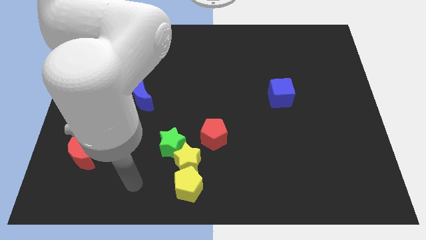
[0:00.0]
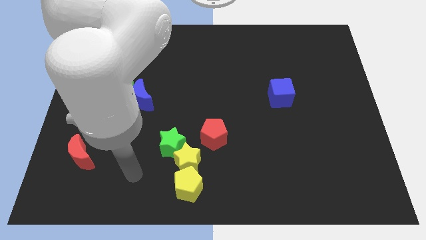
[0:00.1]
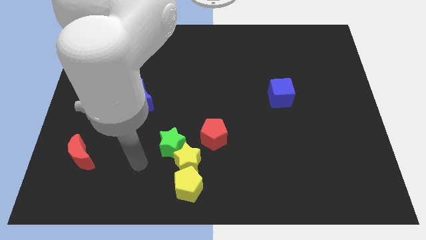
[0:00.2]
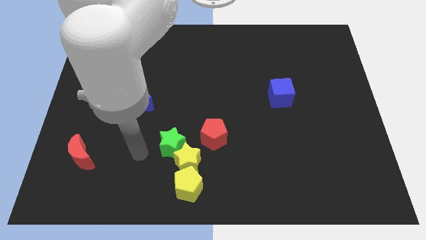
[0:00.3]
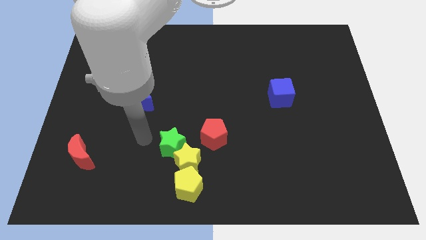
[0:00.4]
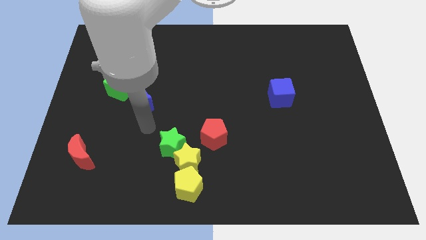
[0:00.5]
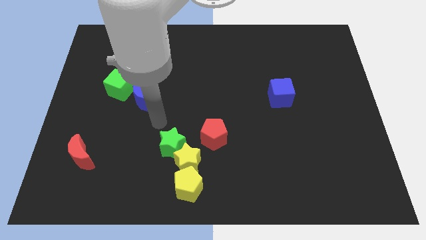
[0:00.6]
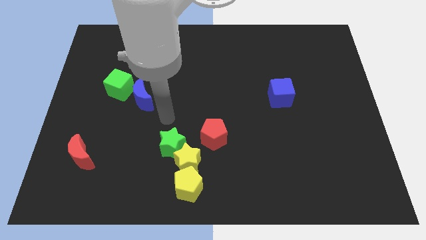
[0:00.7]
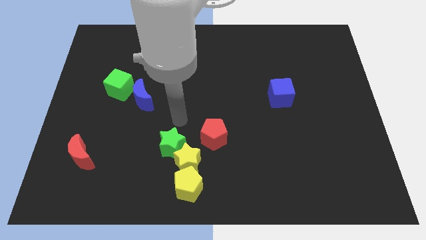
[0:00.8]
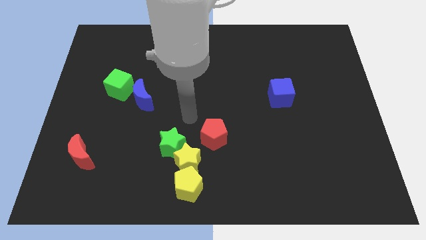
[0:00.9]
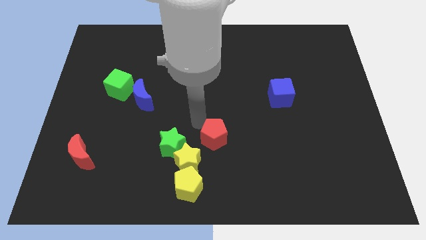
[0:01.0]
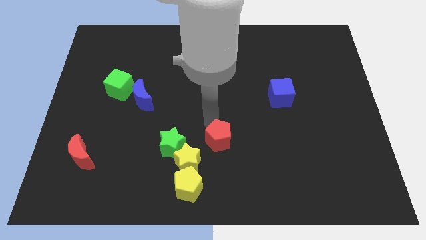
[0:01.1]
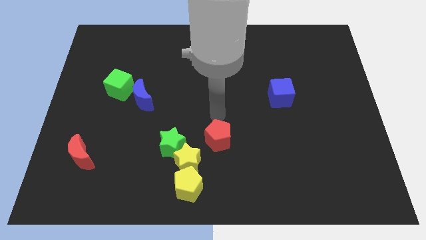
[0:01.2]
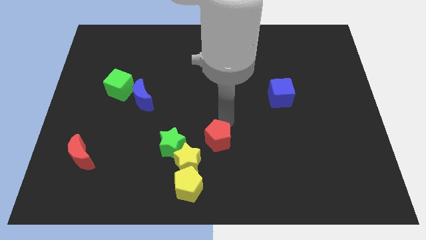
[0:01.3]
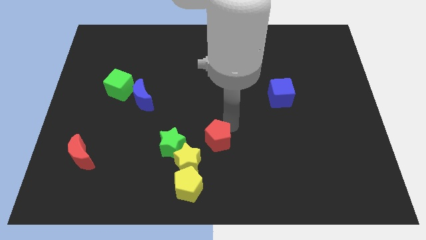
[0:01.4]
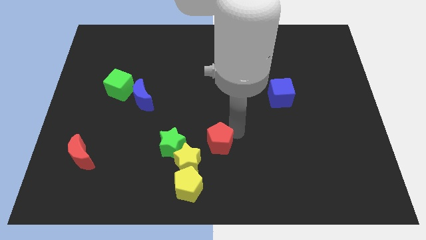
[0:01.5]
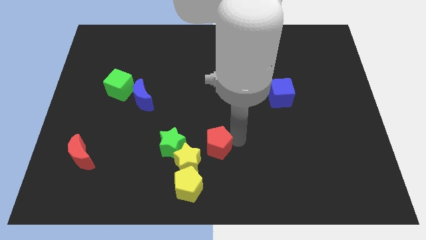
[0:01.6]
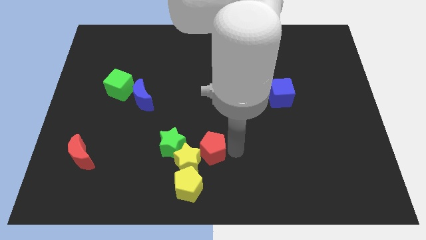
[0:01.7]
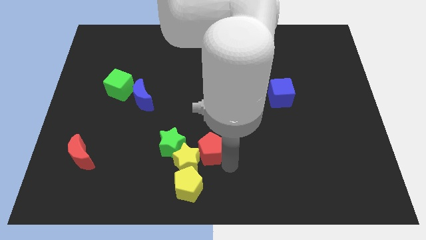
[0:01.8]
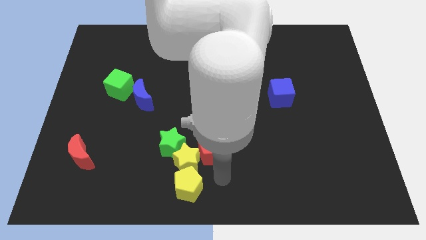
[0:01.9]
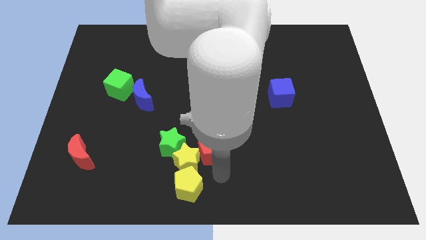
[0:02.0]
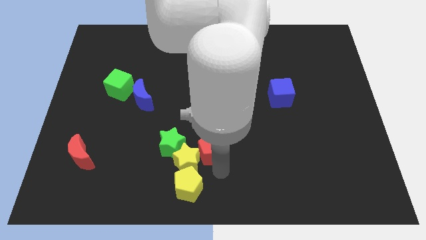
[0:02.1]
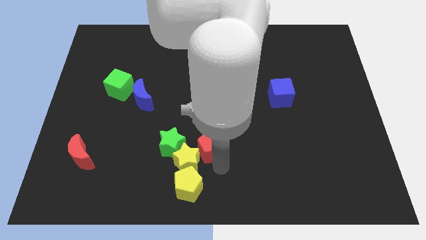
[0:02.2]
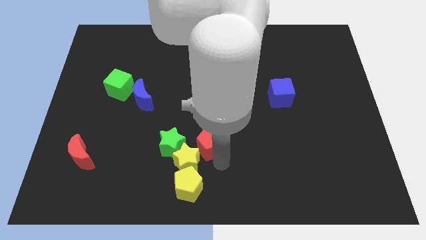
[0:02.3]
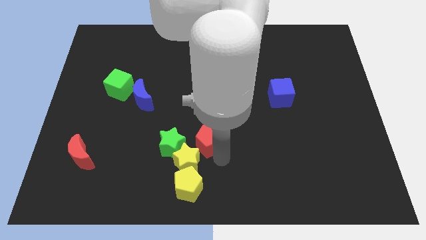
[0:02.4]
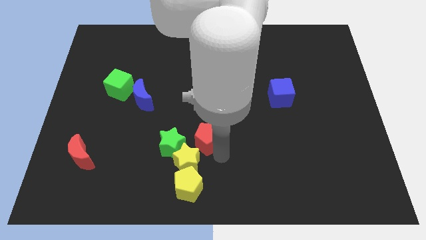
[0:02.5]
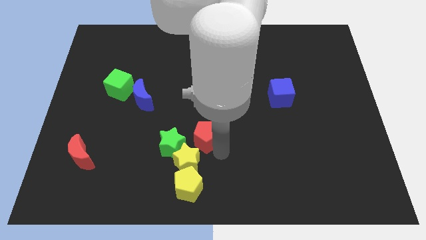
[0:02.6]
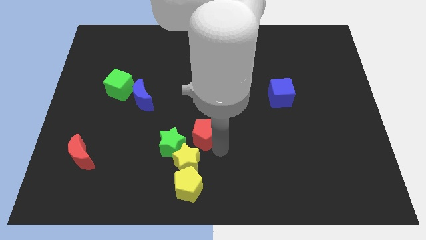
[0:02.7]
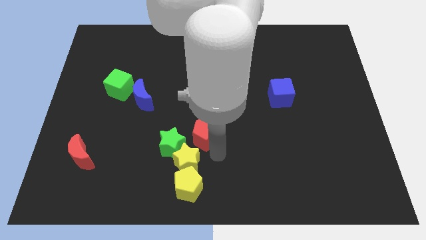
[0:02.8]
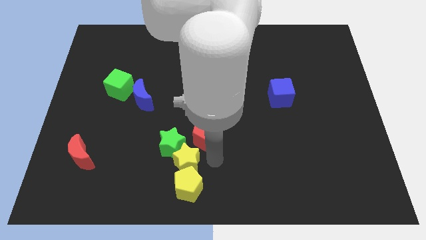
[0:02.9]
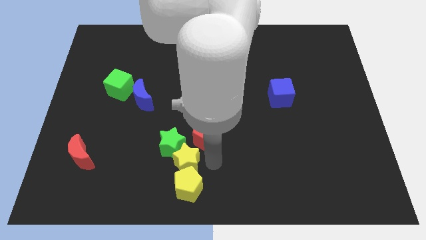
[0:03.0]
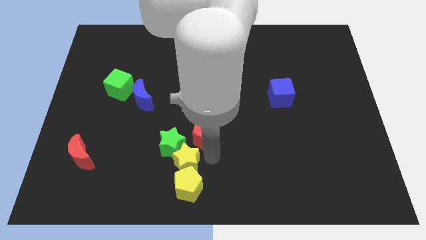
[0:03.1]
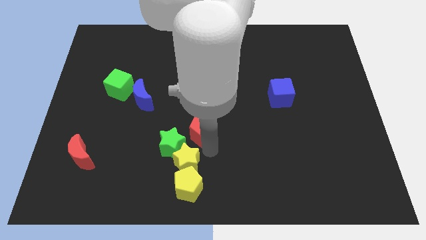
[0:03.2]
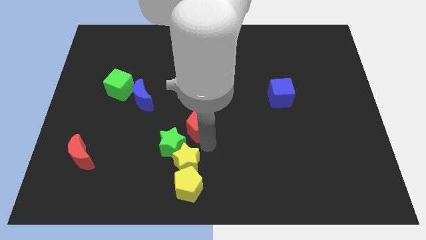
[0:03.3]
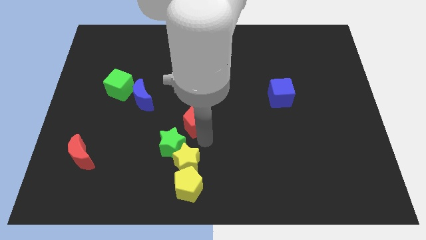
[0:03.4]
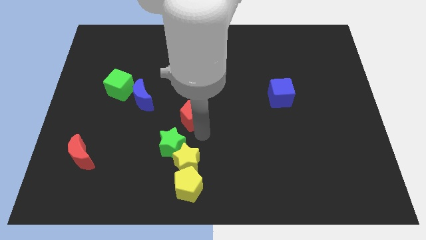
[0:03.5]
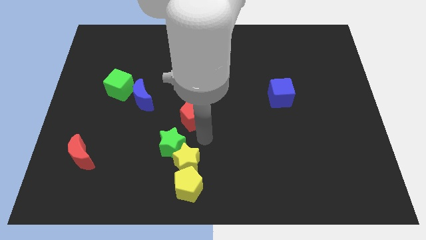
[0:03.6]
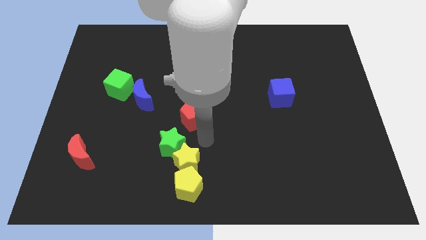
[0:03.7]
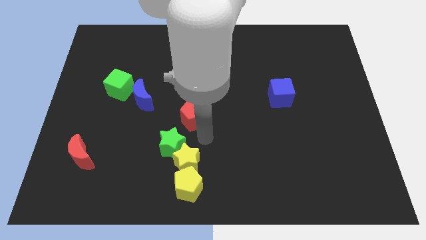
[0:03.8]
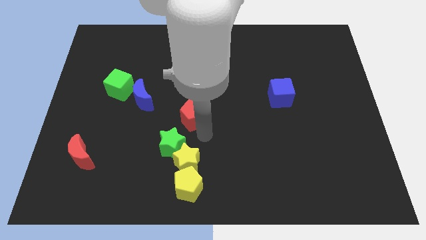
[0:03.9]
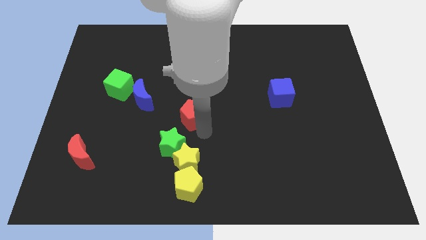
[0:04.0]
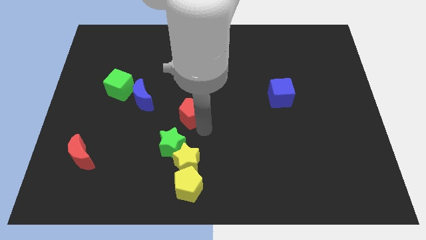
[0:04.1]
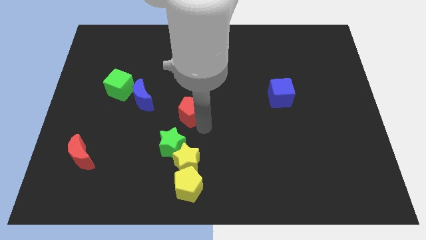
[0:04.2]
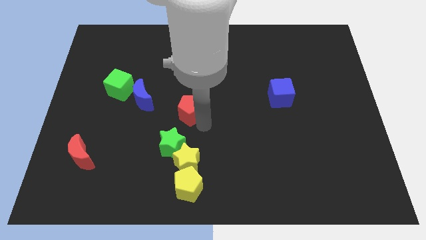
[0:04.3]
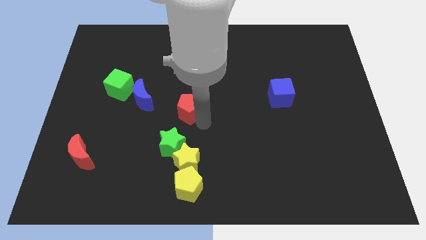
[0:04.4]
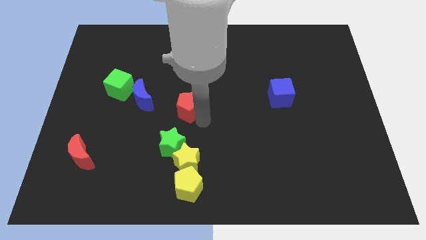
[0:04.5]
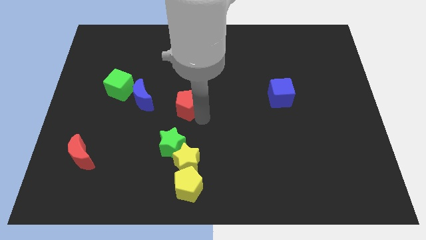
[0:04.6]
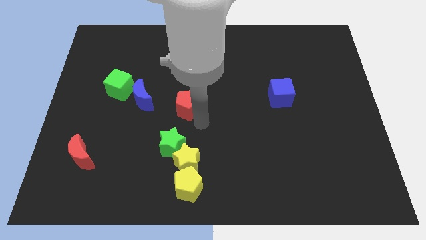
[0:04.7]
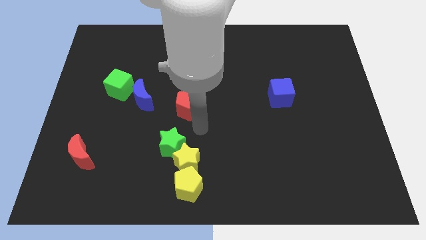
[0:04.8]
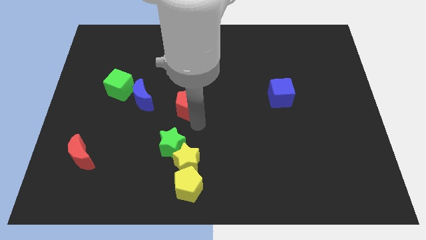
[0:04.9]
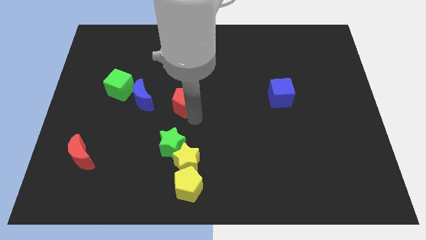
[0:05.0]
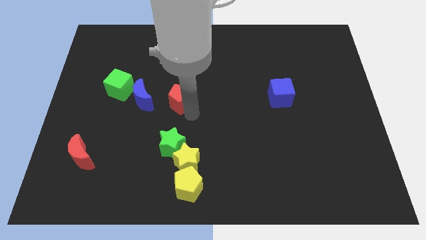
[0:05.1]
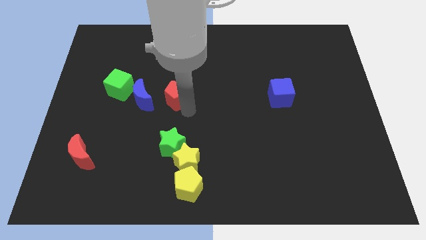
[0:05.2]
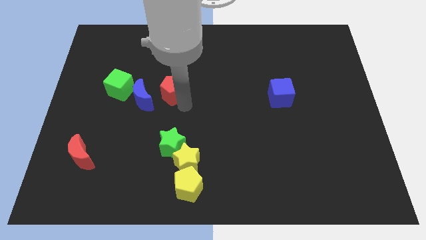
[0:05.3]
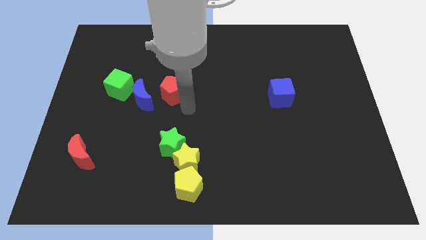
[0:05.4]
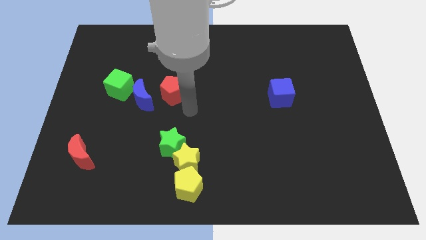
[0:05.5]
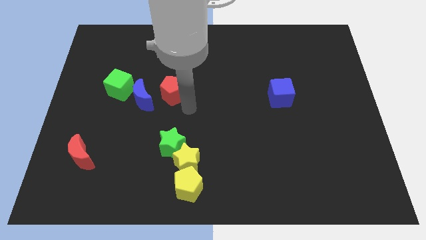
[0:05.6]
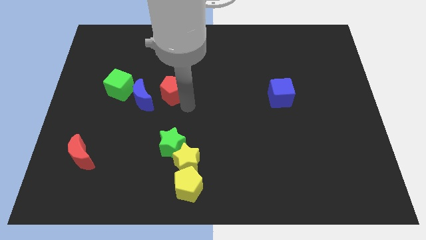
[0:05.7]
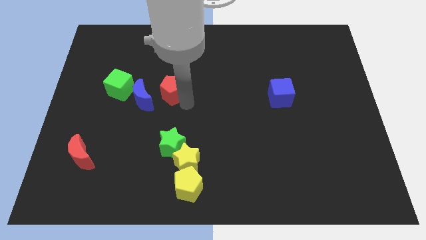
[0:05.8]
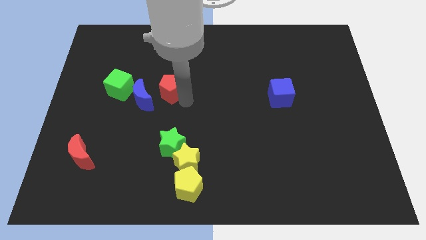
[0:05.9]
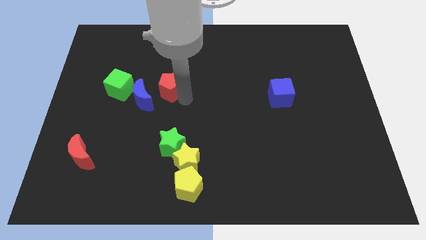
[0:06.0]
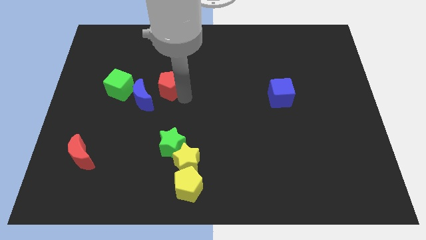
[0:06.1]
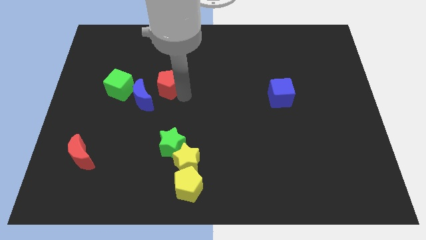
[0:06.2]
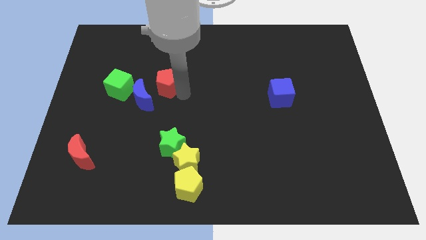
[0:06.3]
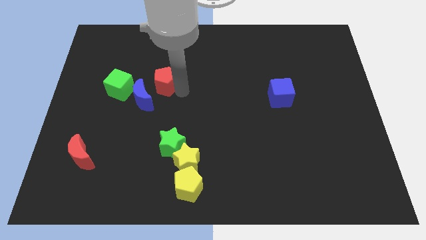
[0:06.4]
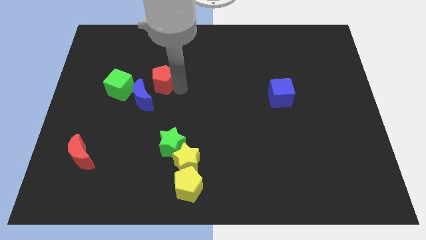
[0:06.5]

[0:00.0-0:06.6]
move the red pentagon diagonally upwards and to the left

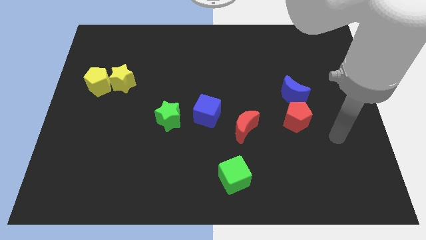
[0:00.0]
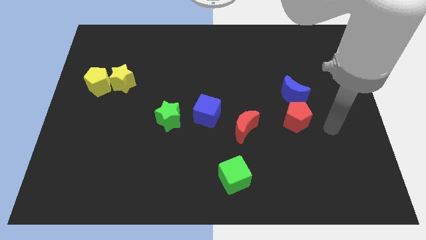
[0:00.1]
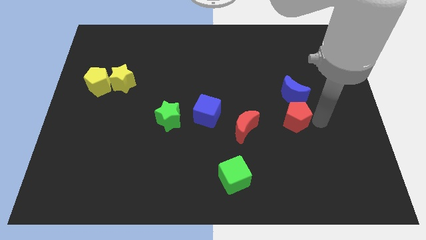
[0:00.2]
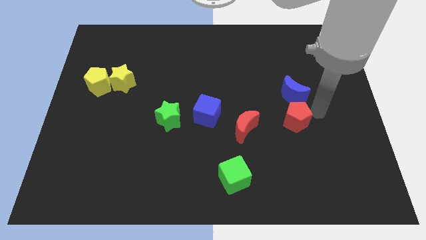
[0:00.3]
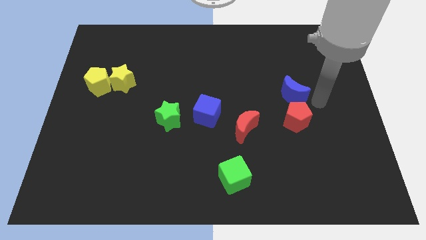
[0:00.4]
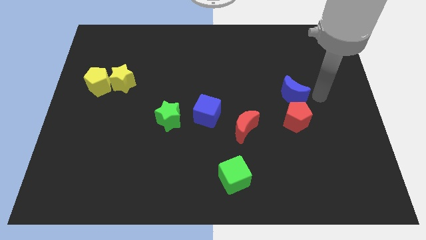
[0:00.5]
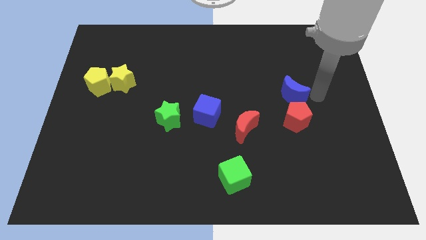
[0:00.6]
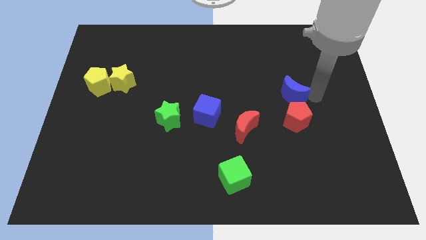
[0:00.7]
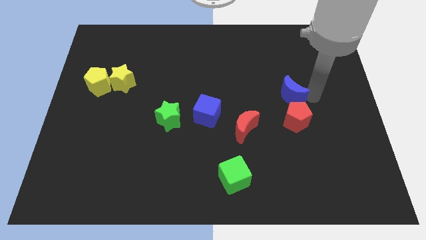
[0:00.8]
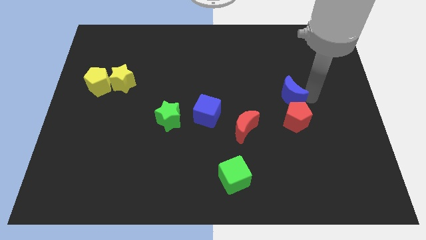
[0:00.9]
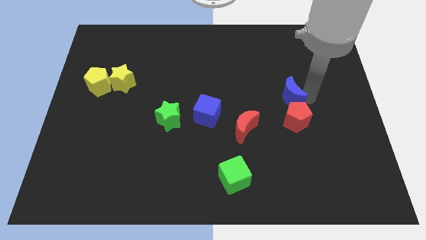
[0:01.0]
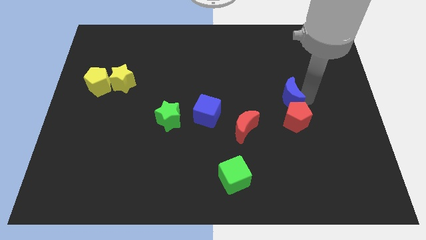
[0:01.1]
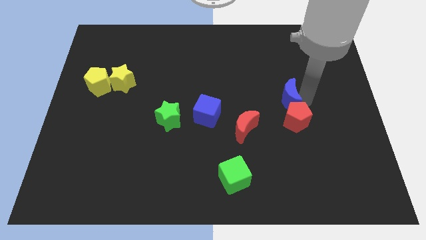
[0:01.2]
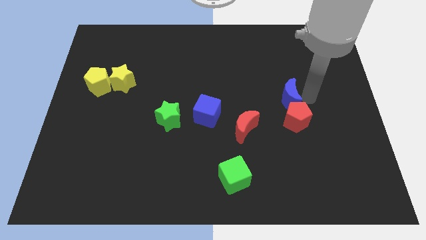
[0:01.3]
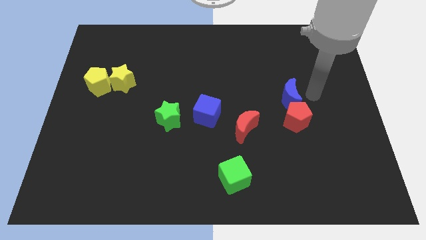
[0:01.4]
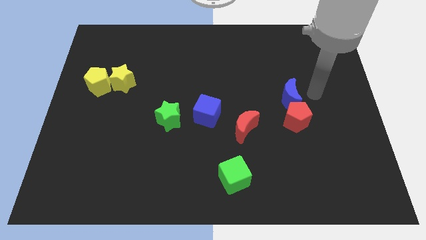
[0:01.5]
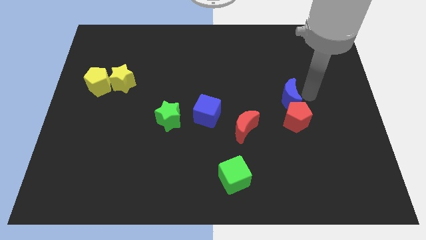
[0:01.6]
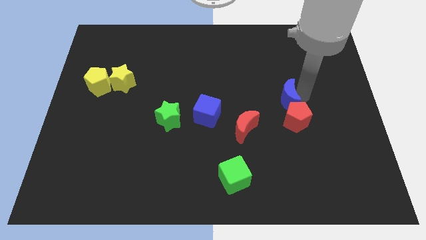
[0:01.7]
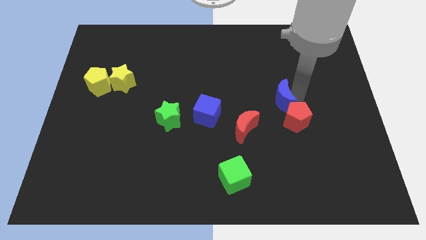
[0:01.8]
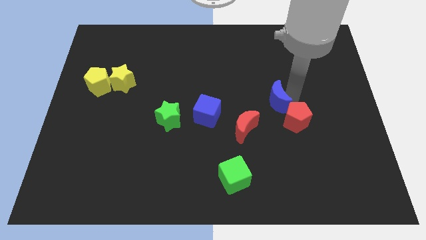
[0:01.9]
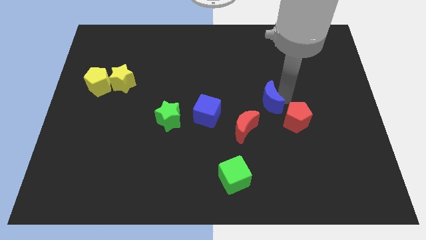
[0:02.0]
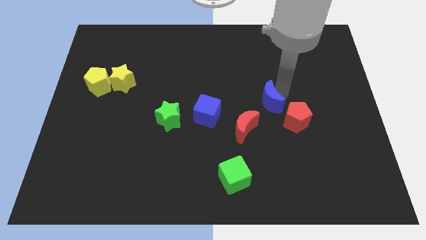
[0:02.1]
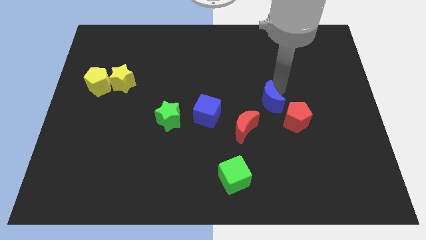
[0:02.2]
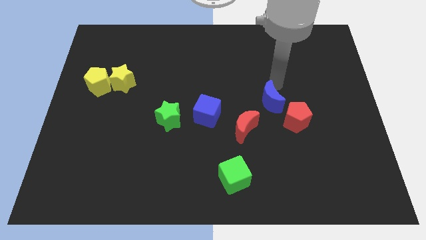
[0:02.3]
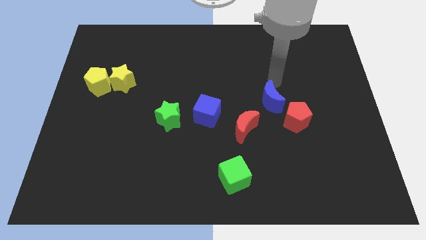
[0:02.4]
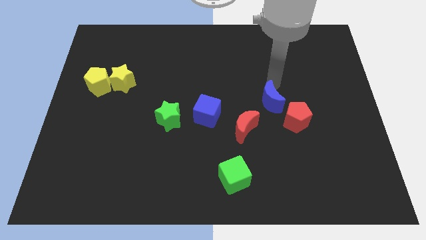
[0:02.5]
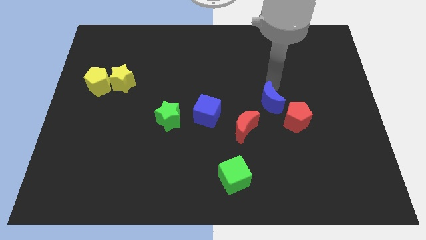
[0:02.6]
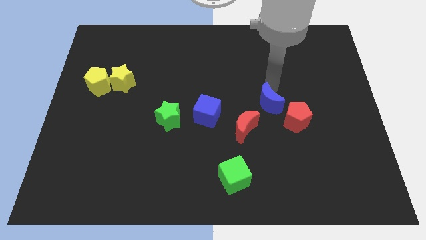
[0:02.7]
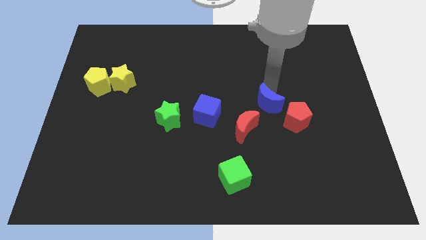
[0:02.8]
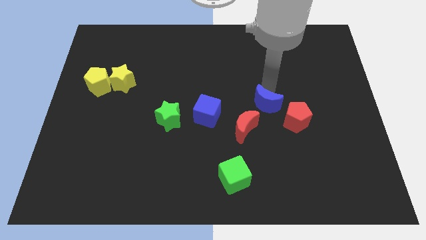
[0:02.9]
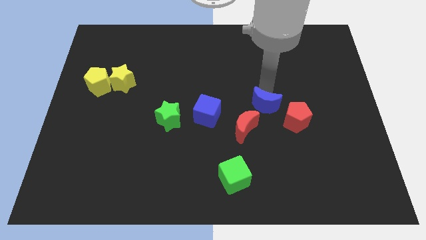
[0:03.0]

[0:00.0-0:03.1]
slightly push the blue moon downwards and then left
